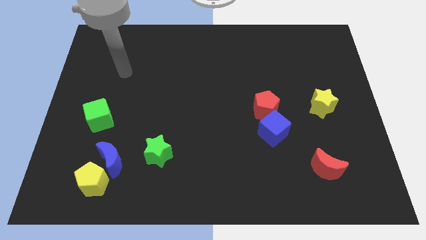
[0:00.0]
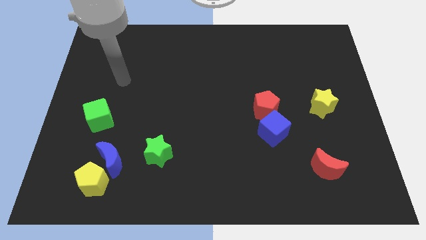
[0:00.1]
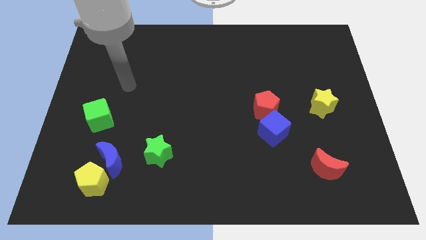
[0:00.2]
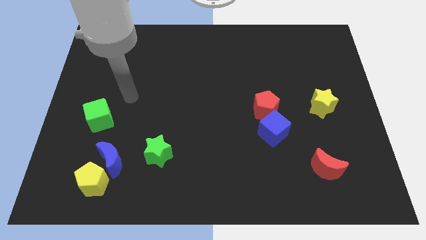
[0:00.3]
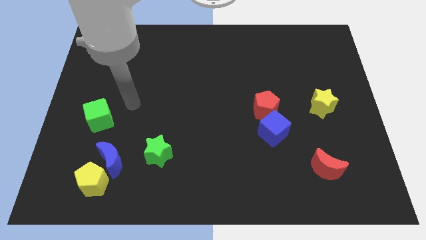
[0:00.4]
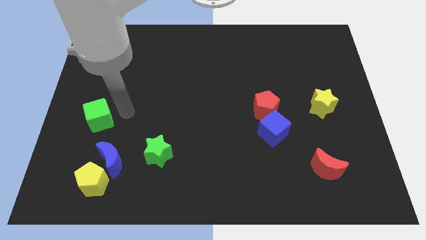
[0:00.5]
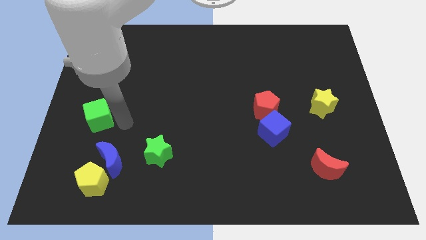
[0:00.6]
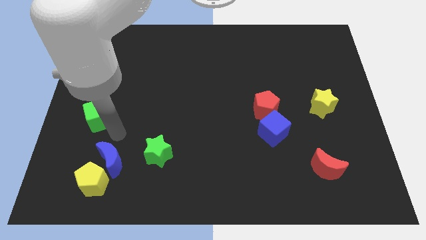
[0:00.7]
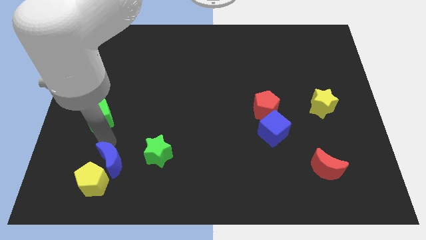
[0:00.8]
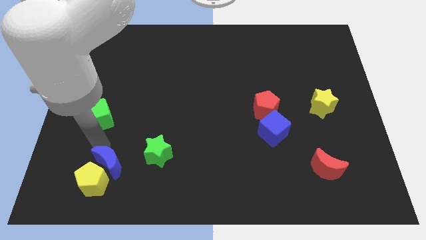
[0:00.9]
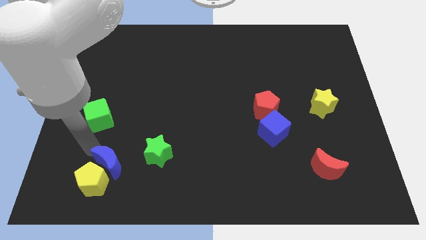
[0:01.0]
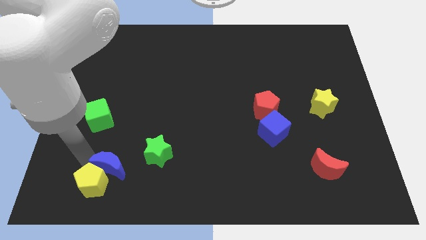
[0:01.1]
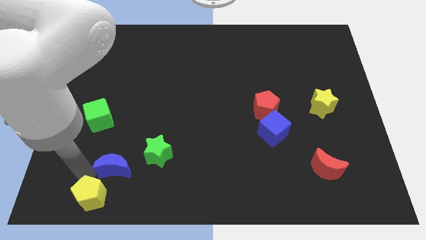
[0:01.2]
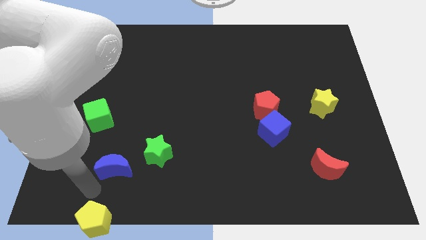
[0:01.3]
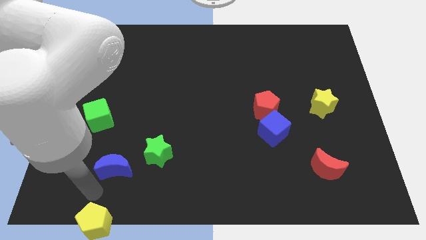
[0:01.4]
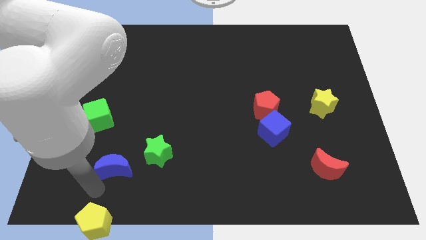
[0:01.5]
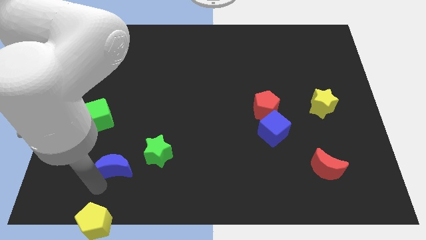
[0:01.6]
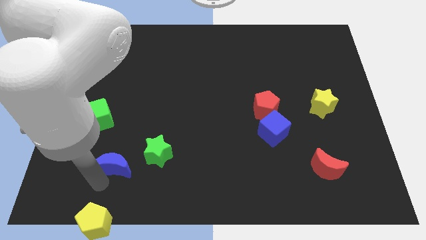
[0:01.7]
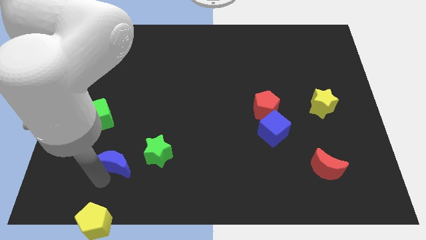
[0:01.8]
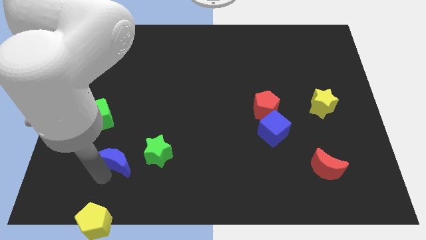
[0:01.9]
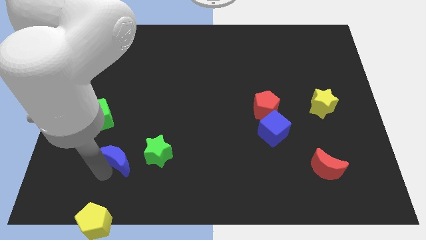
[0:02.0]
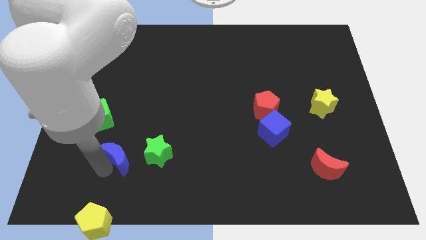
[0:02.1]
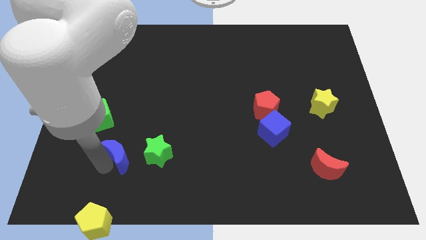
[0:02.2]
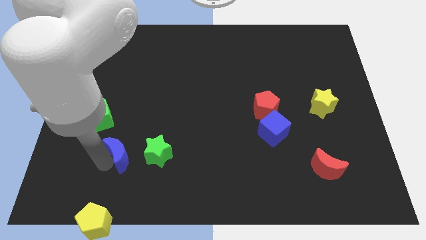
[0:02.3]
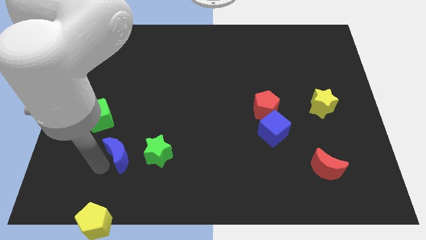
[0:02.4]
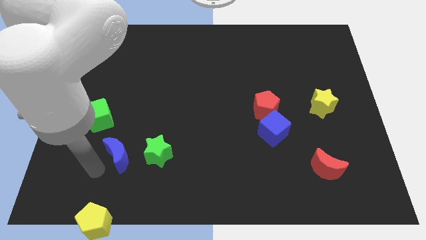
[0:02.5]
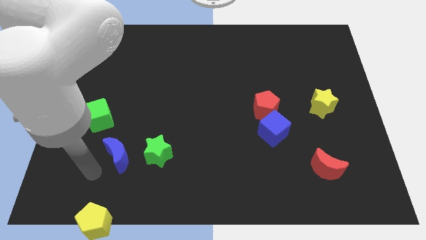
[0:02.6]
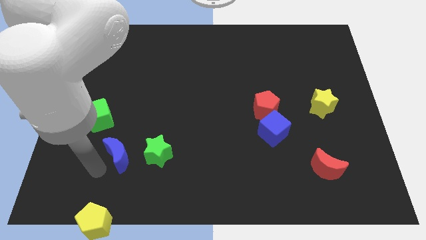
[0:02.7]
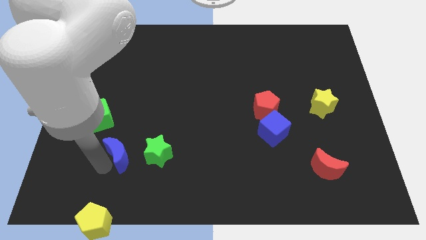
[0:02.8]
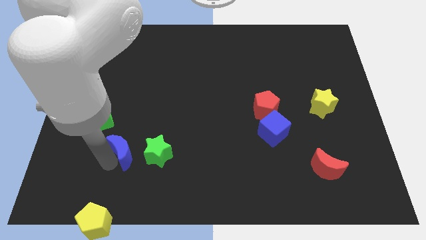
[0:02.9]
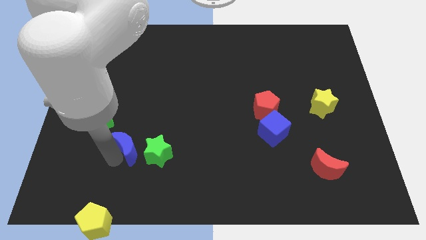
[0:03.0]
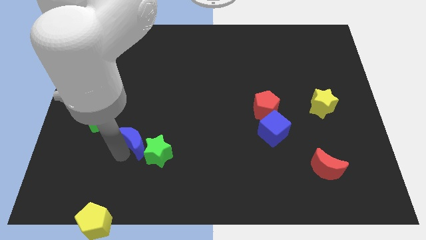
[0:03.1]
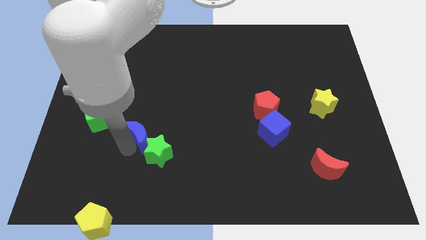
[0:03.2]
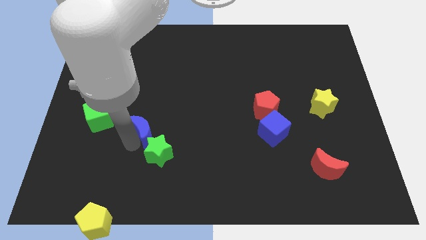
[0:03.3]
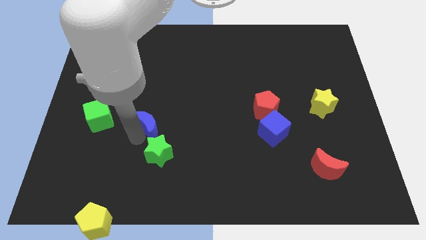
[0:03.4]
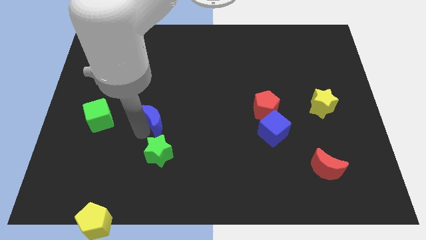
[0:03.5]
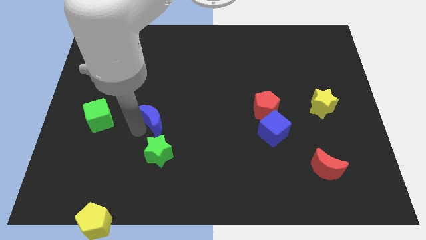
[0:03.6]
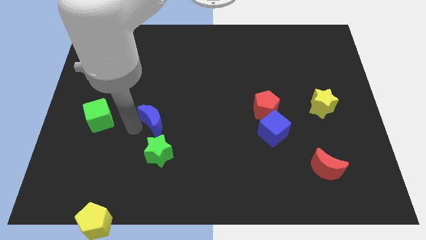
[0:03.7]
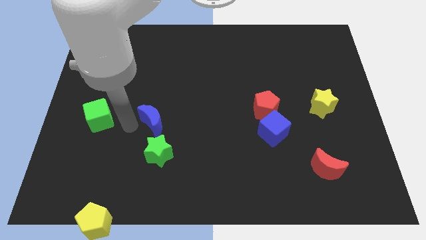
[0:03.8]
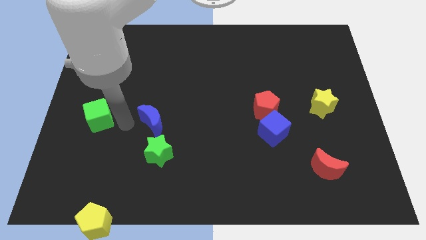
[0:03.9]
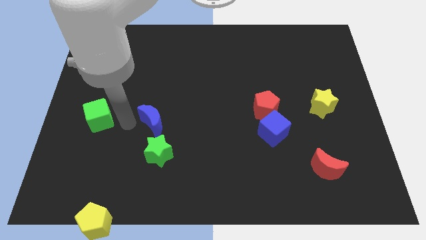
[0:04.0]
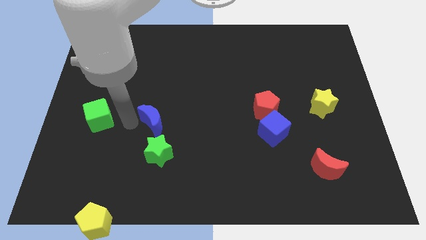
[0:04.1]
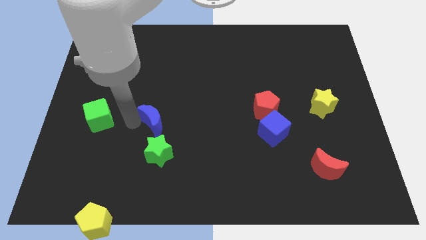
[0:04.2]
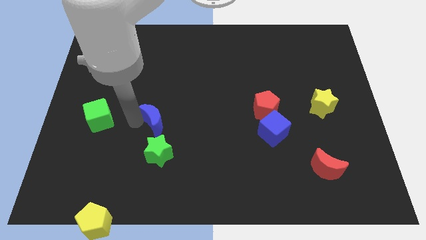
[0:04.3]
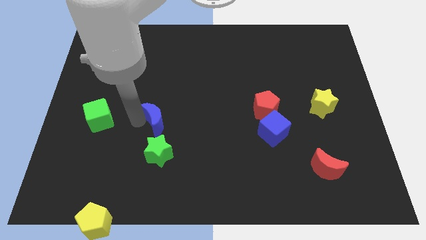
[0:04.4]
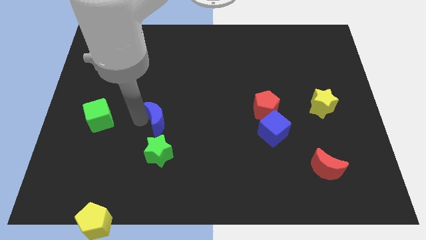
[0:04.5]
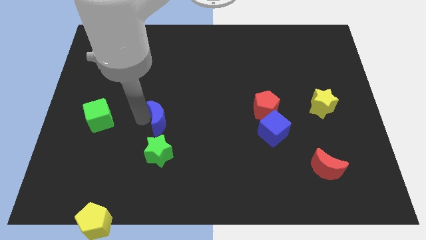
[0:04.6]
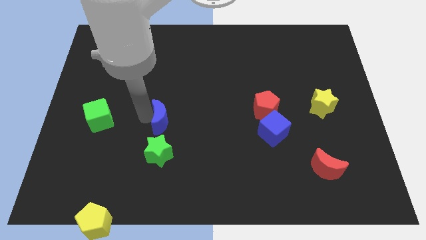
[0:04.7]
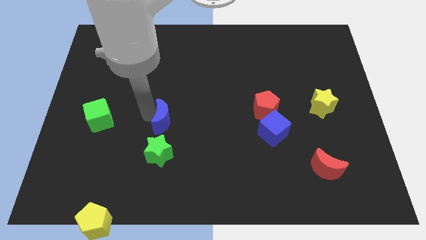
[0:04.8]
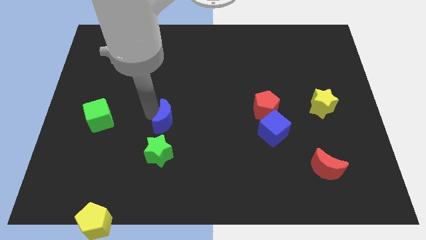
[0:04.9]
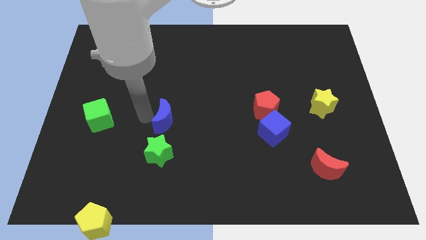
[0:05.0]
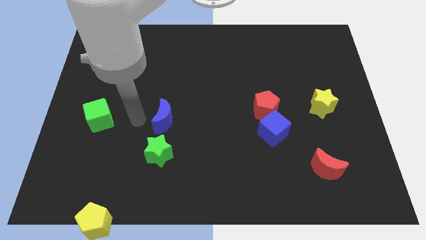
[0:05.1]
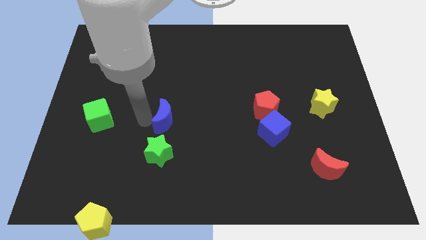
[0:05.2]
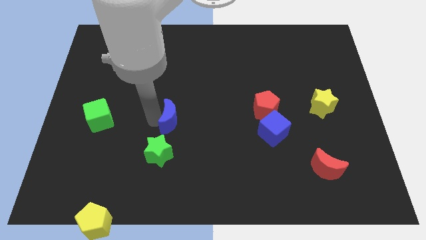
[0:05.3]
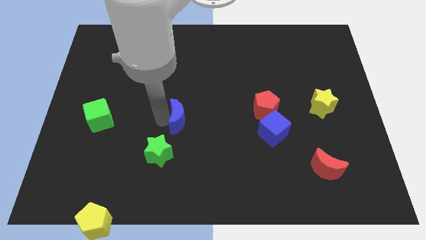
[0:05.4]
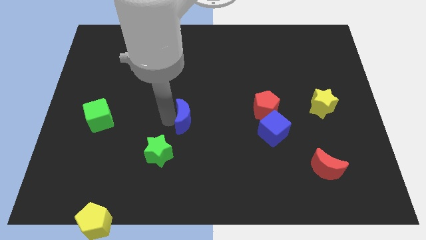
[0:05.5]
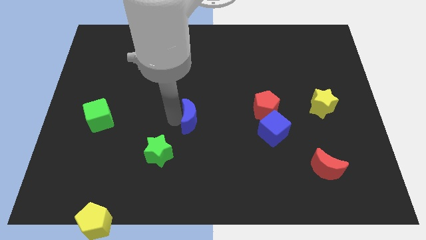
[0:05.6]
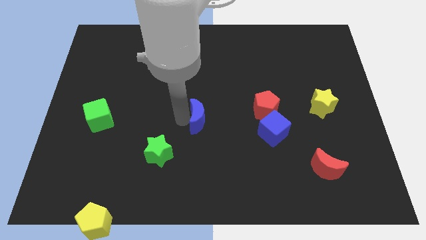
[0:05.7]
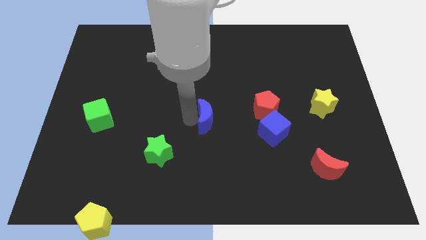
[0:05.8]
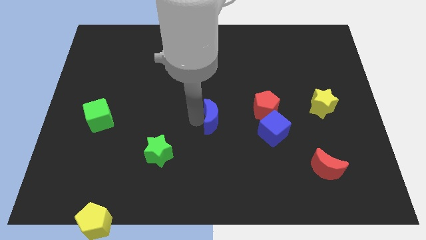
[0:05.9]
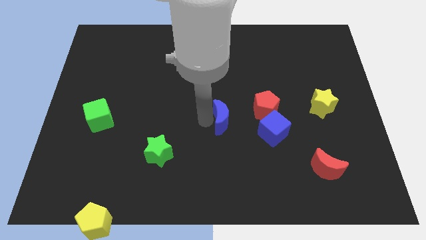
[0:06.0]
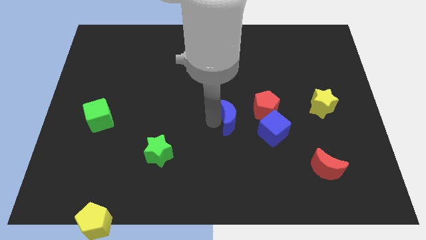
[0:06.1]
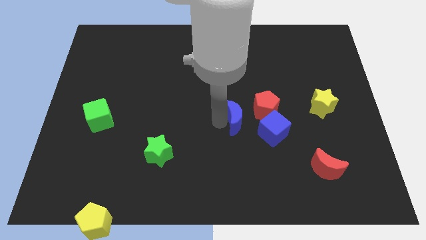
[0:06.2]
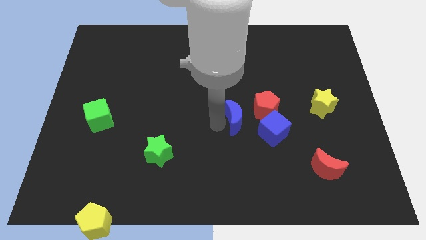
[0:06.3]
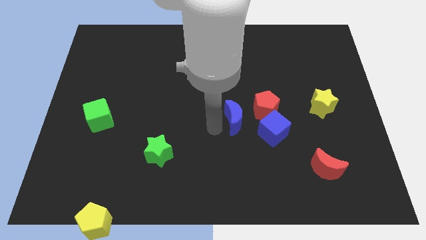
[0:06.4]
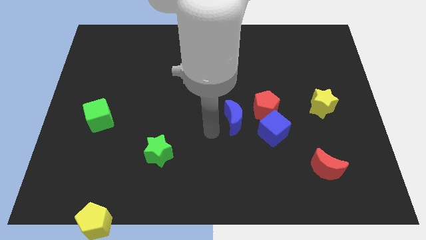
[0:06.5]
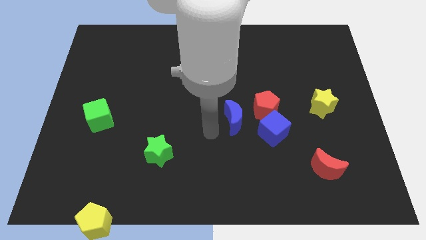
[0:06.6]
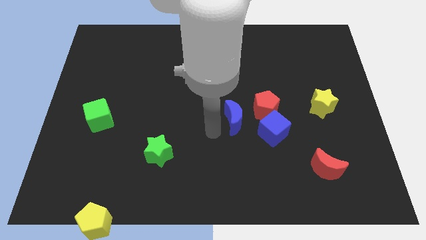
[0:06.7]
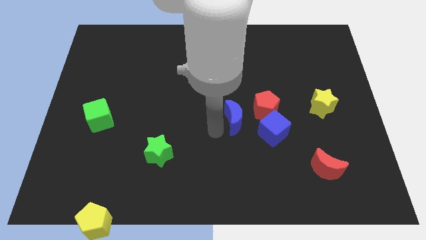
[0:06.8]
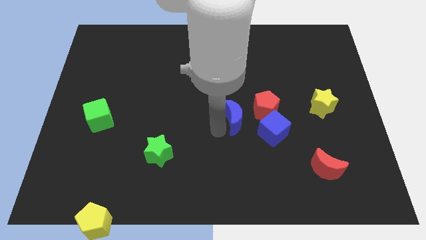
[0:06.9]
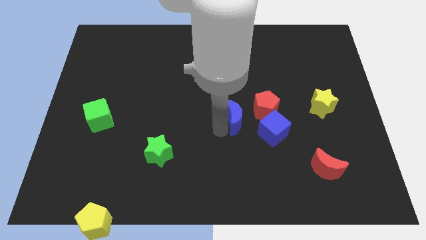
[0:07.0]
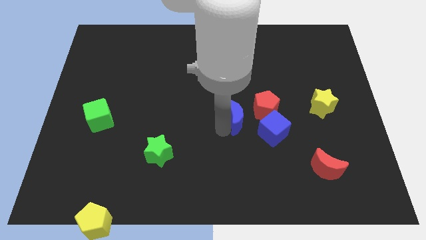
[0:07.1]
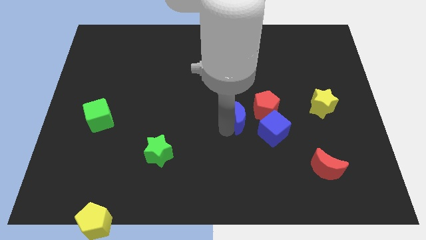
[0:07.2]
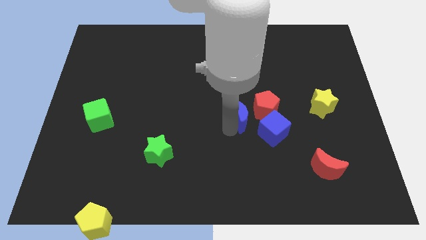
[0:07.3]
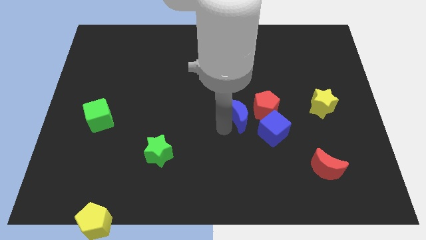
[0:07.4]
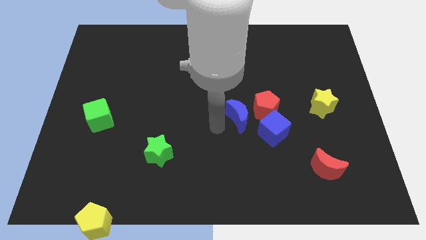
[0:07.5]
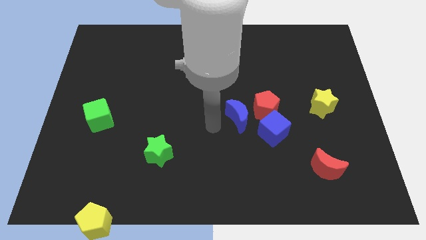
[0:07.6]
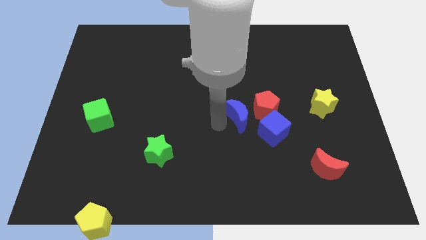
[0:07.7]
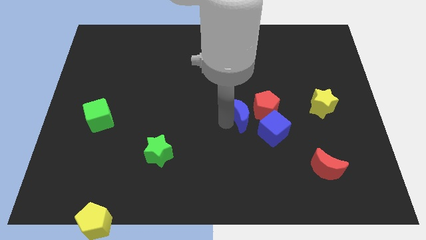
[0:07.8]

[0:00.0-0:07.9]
push the blue moon next to the red pentagon
